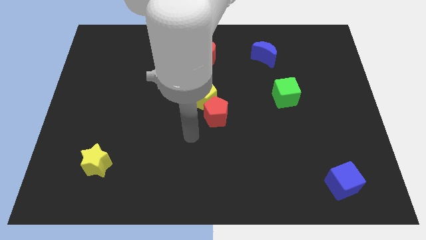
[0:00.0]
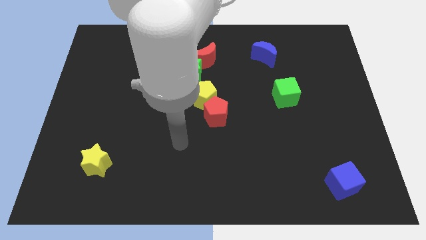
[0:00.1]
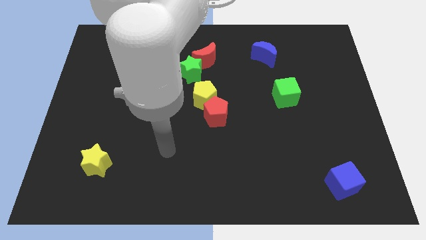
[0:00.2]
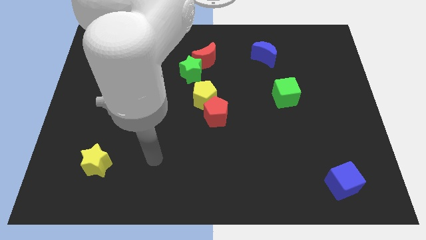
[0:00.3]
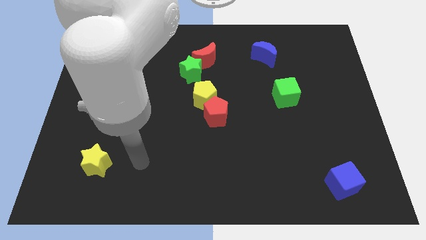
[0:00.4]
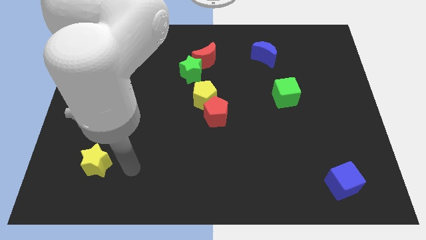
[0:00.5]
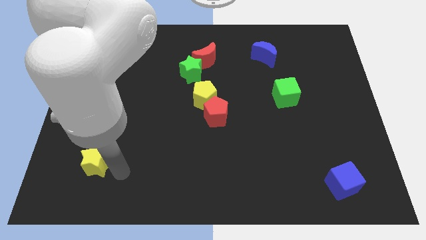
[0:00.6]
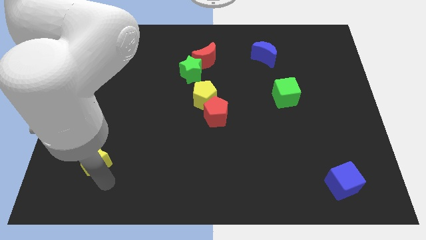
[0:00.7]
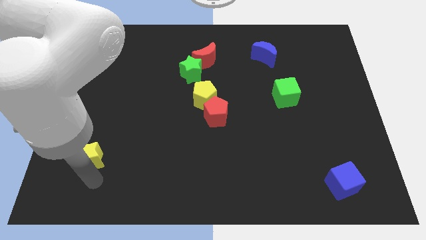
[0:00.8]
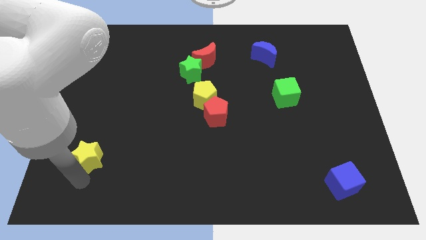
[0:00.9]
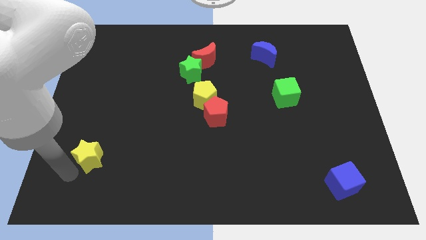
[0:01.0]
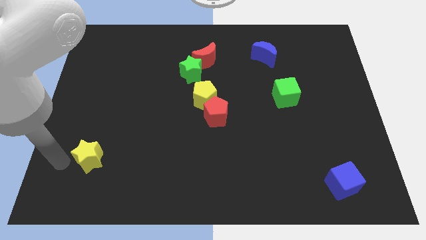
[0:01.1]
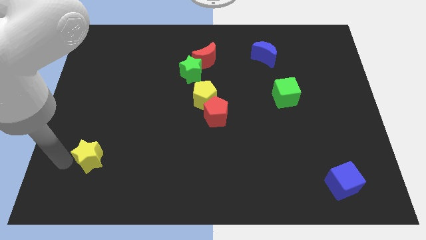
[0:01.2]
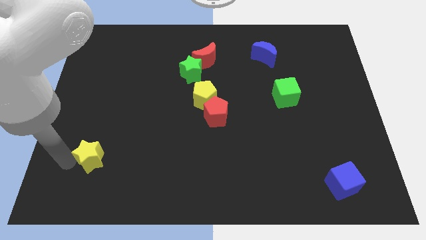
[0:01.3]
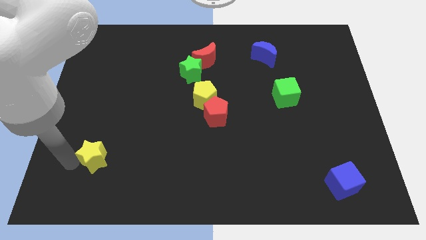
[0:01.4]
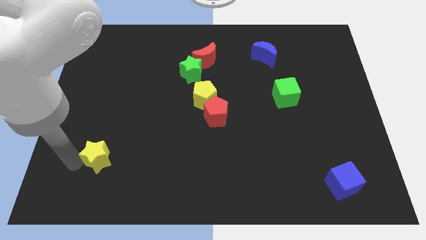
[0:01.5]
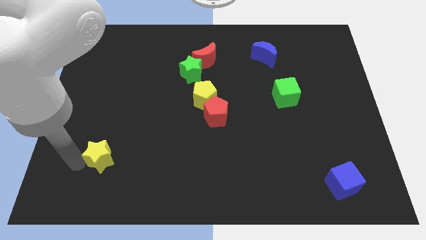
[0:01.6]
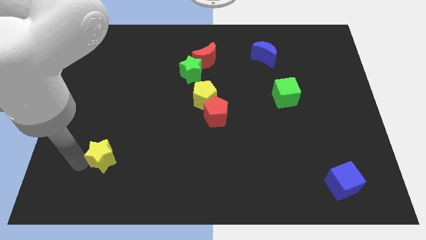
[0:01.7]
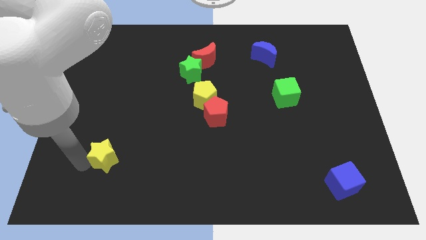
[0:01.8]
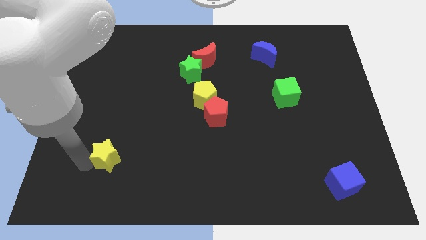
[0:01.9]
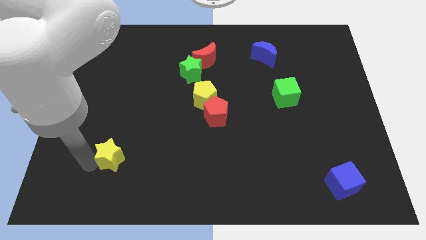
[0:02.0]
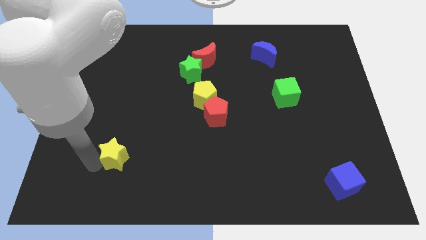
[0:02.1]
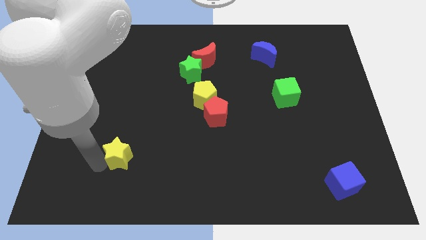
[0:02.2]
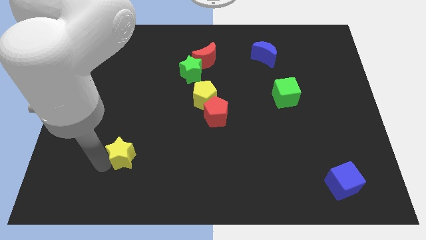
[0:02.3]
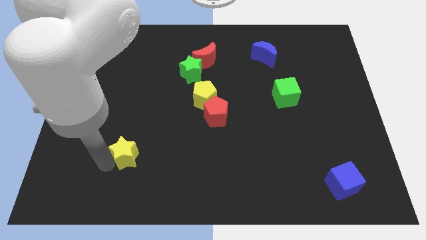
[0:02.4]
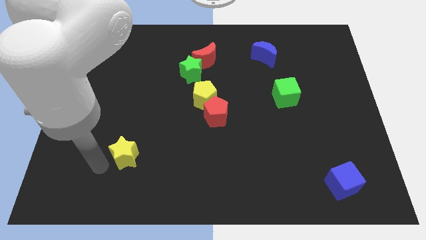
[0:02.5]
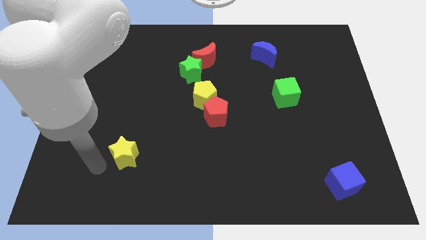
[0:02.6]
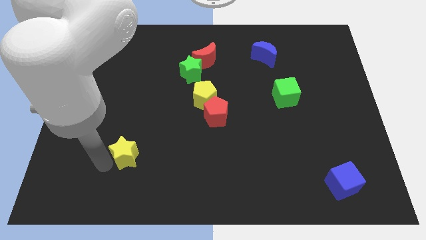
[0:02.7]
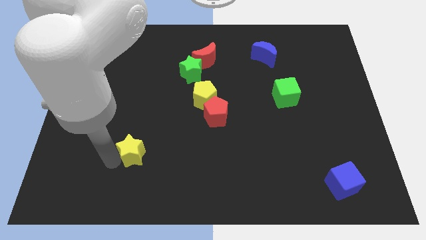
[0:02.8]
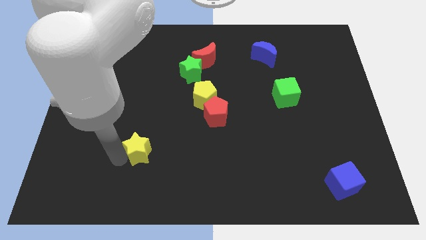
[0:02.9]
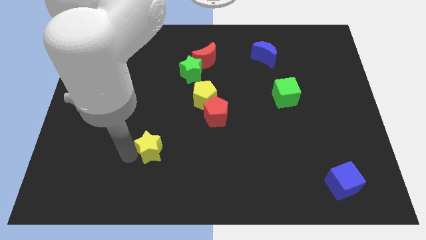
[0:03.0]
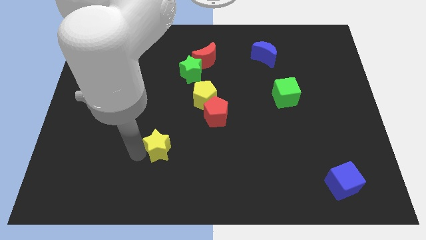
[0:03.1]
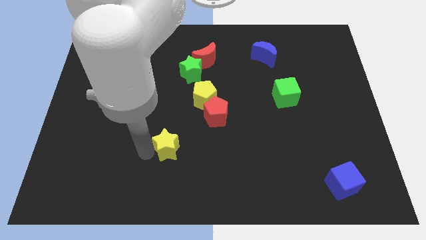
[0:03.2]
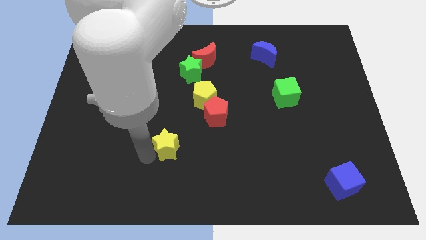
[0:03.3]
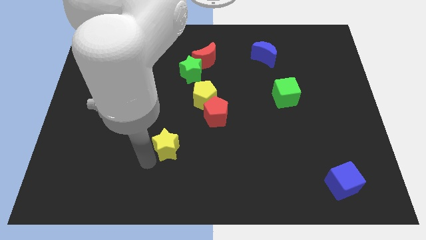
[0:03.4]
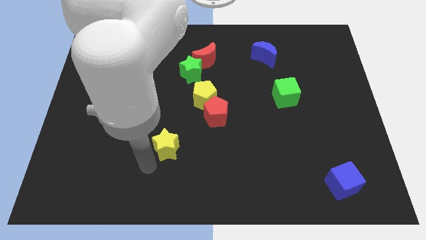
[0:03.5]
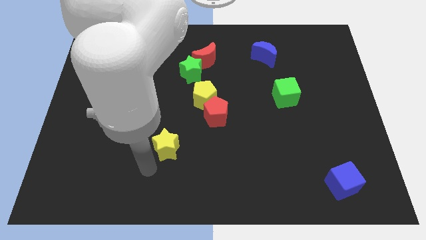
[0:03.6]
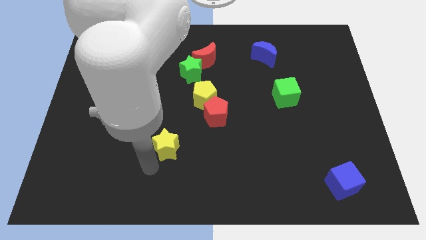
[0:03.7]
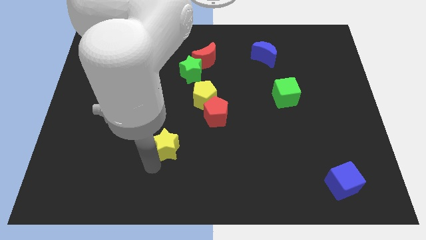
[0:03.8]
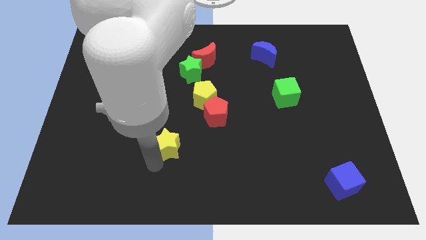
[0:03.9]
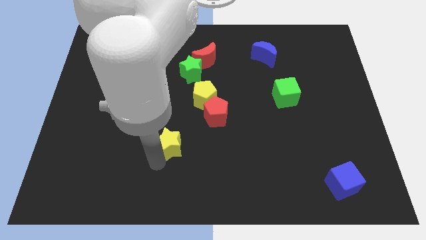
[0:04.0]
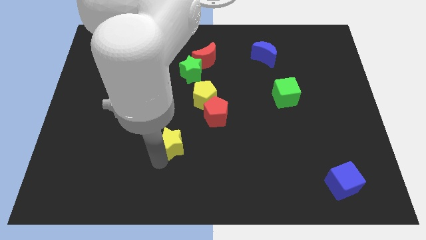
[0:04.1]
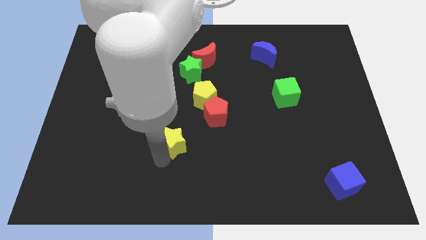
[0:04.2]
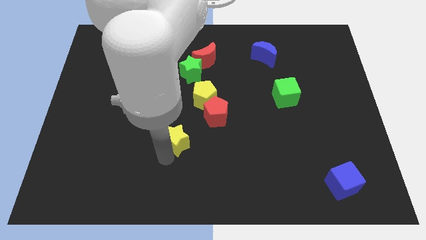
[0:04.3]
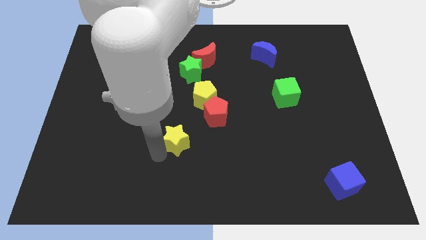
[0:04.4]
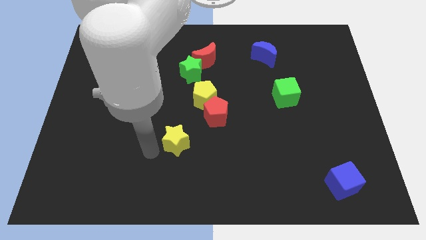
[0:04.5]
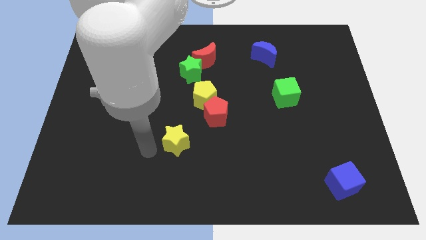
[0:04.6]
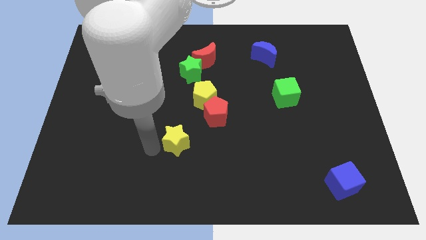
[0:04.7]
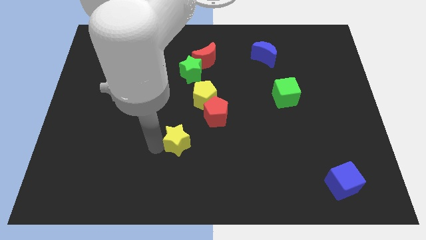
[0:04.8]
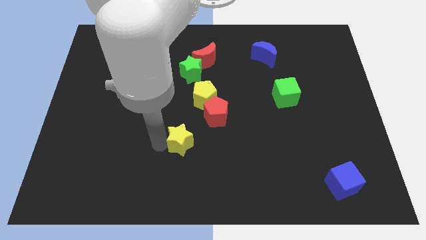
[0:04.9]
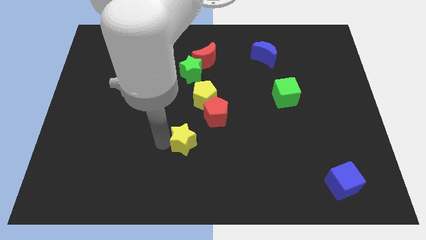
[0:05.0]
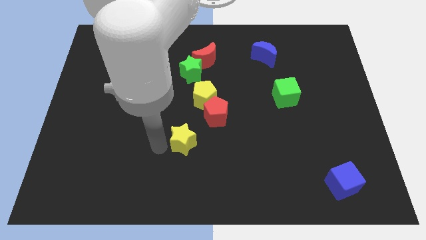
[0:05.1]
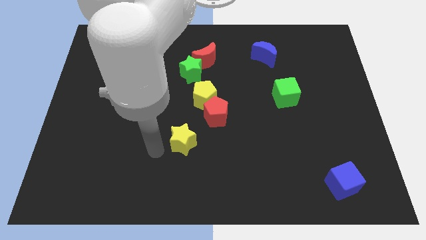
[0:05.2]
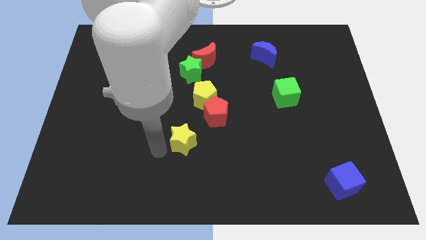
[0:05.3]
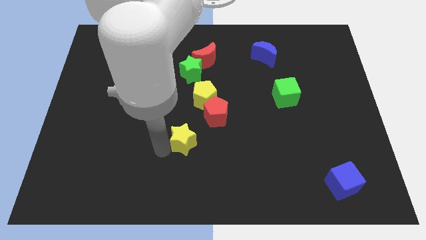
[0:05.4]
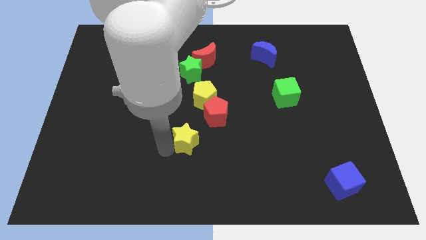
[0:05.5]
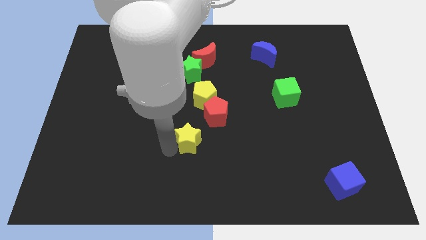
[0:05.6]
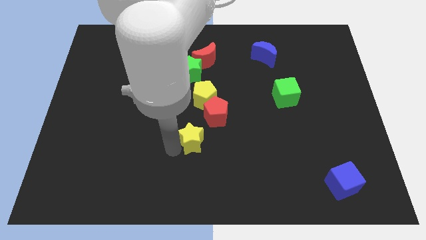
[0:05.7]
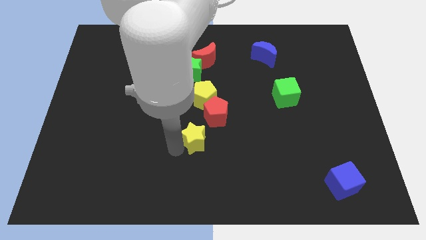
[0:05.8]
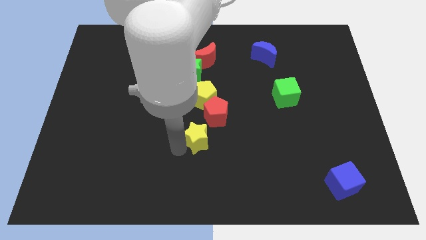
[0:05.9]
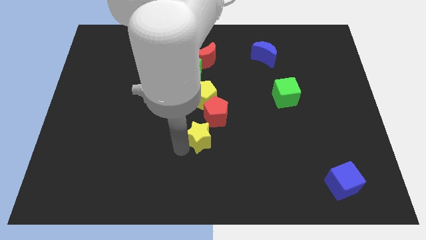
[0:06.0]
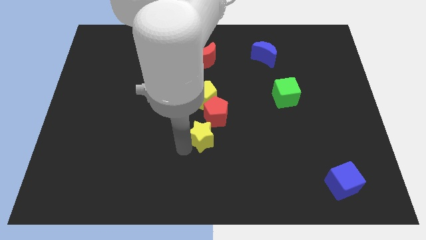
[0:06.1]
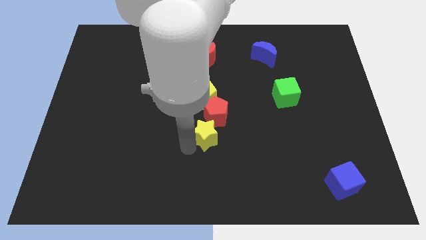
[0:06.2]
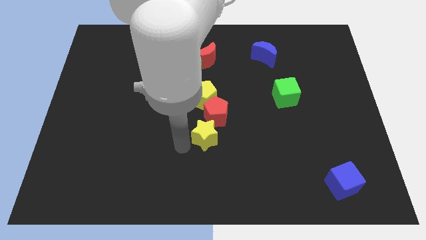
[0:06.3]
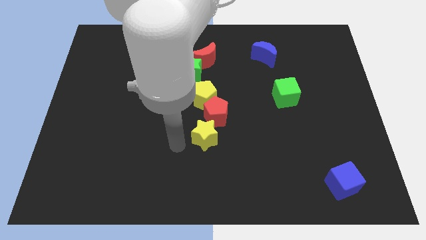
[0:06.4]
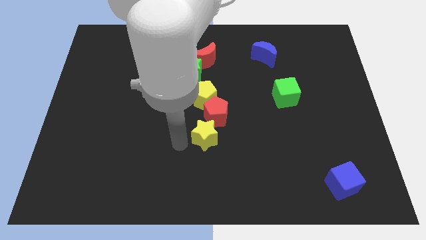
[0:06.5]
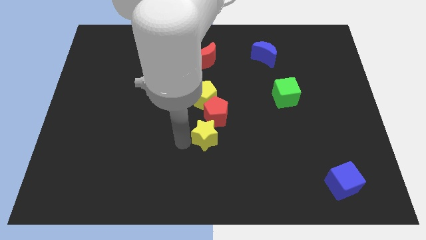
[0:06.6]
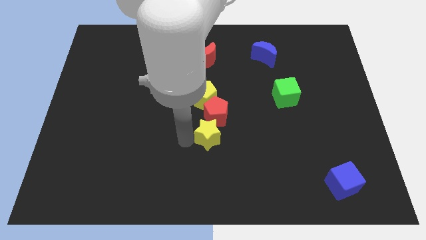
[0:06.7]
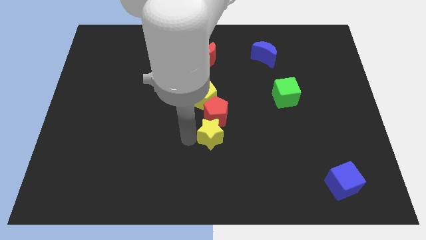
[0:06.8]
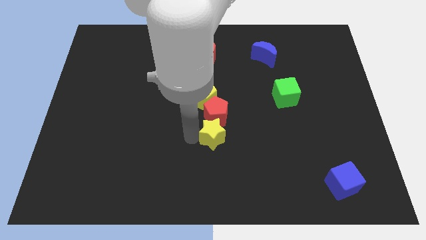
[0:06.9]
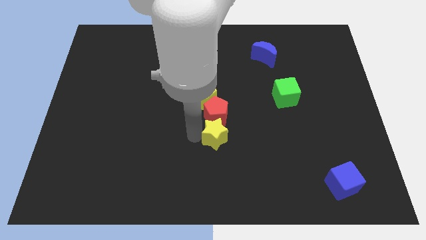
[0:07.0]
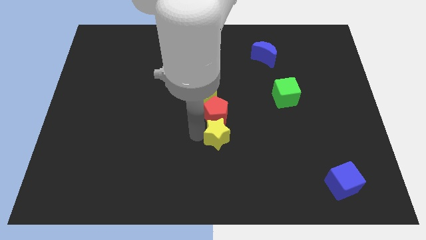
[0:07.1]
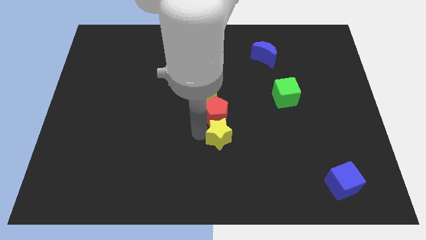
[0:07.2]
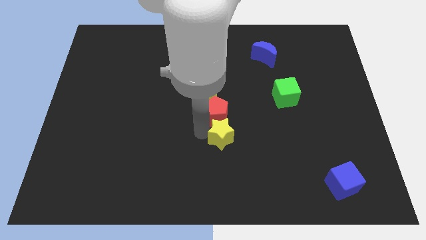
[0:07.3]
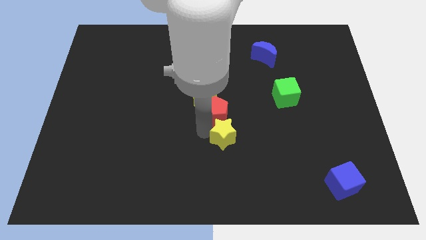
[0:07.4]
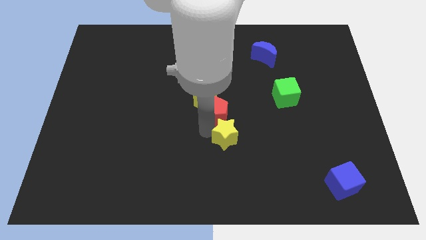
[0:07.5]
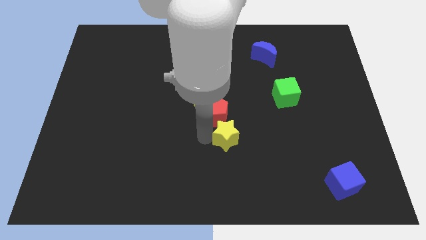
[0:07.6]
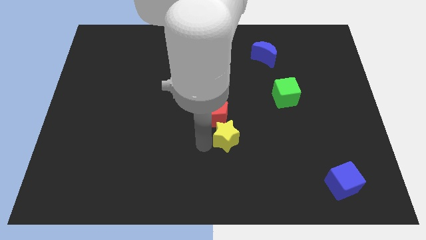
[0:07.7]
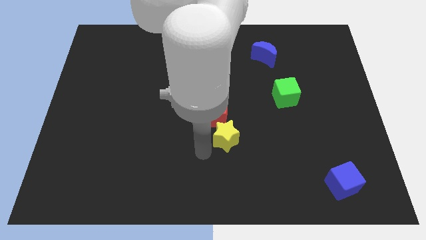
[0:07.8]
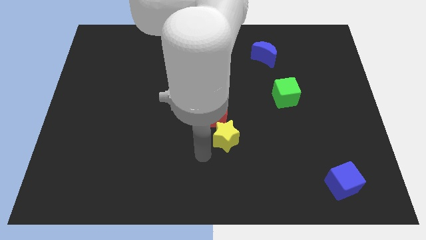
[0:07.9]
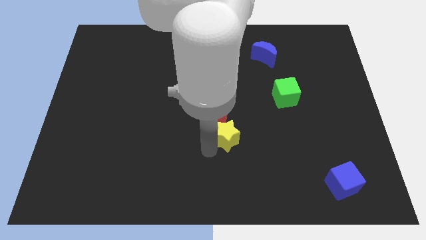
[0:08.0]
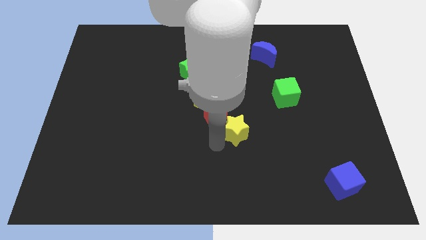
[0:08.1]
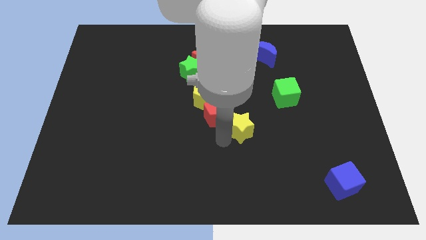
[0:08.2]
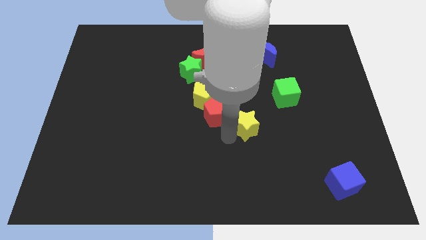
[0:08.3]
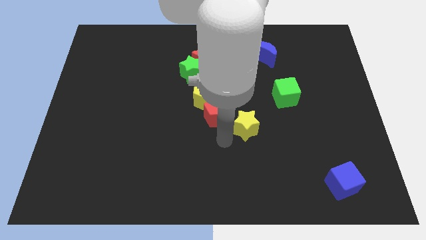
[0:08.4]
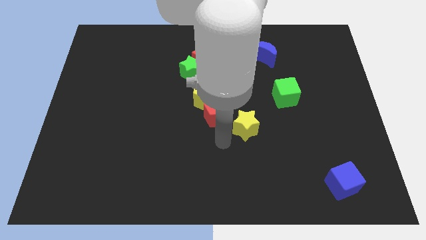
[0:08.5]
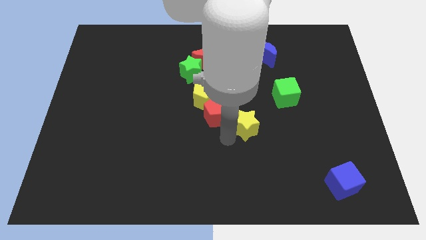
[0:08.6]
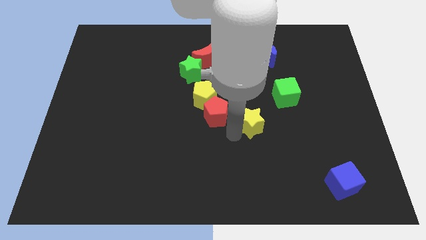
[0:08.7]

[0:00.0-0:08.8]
move the yellow star diagonally down and to the left of the green cube
